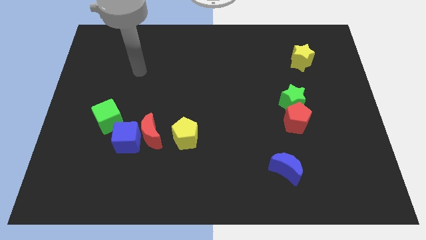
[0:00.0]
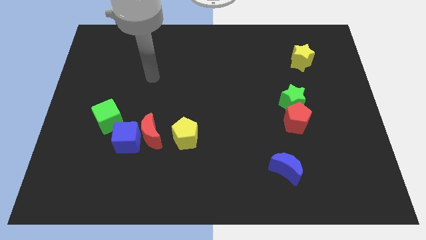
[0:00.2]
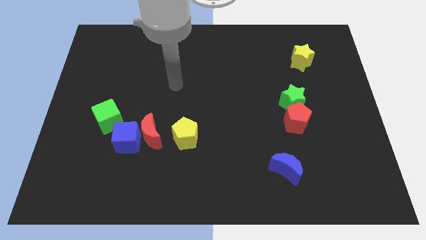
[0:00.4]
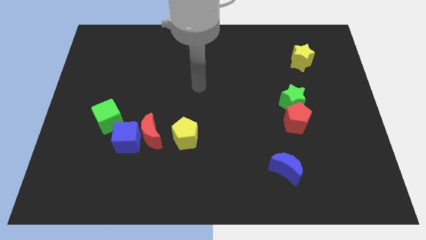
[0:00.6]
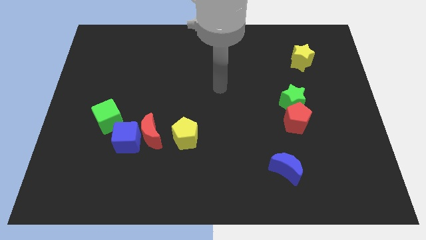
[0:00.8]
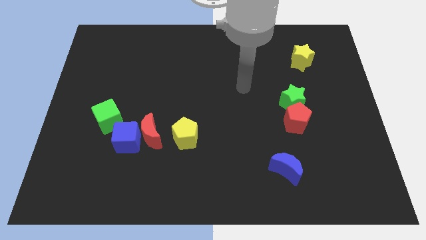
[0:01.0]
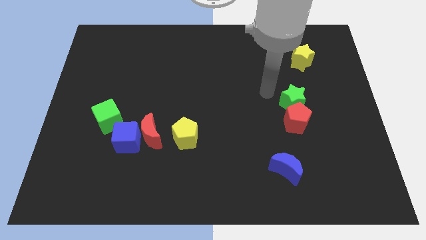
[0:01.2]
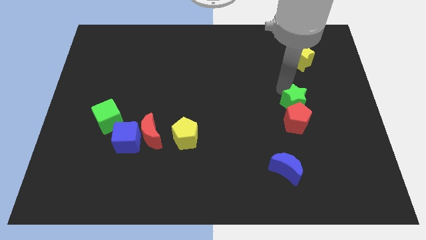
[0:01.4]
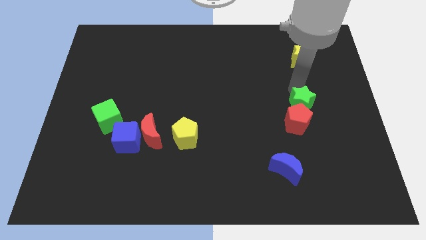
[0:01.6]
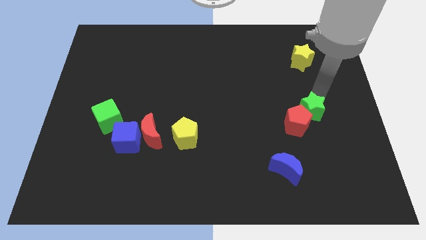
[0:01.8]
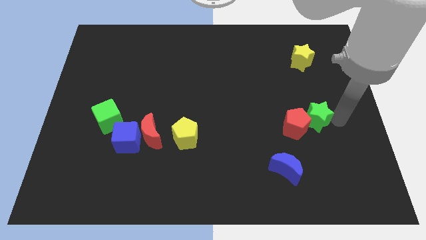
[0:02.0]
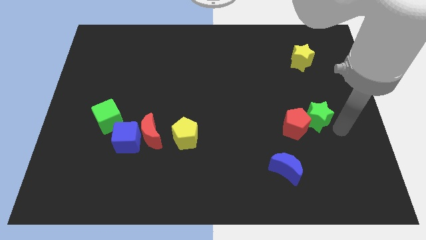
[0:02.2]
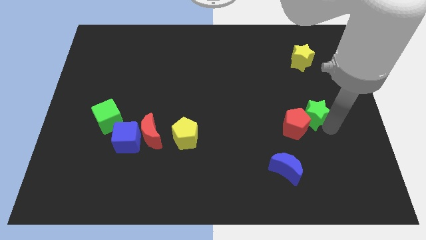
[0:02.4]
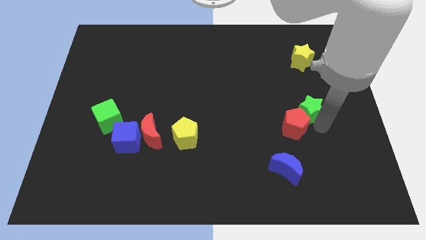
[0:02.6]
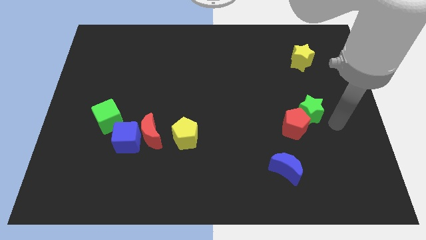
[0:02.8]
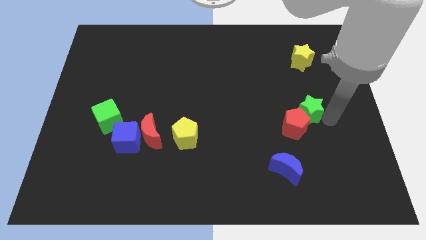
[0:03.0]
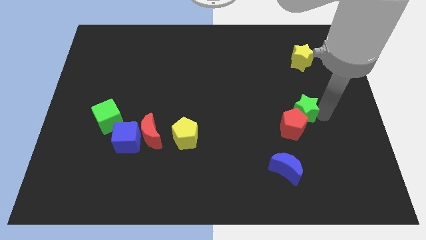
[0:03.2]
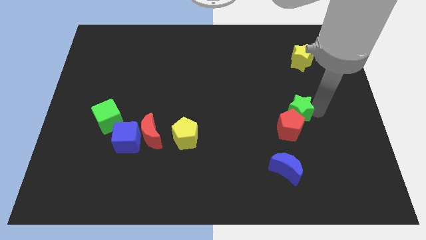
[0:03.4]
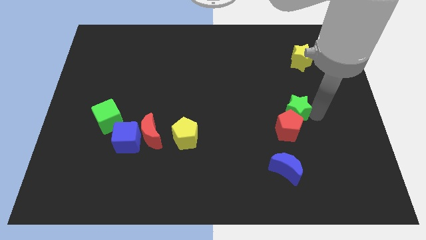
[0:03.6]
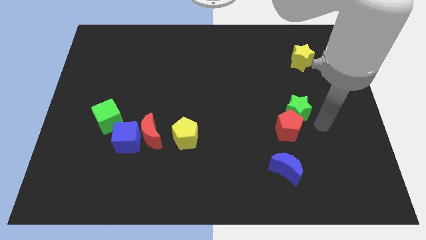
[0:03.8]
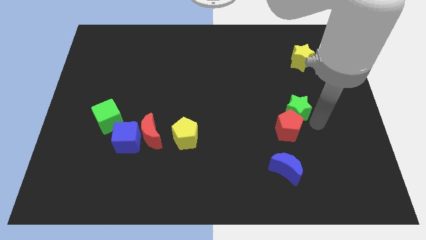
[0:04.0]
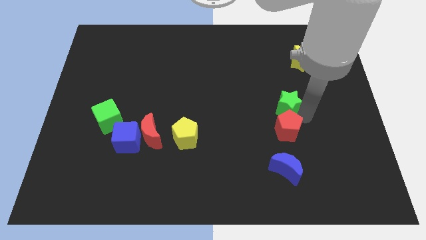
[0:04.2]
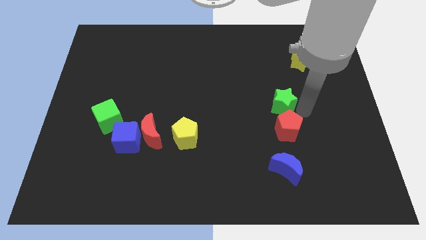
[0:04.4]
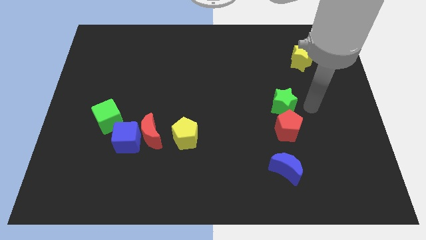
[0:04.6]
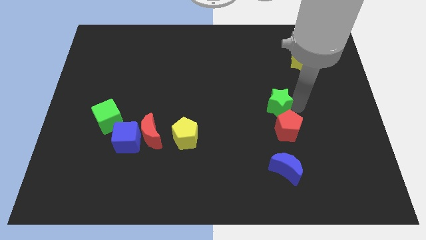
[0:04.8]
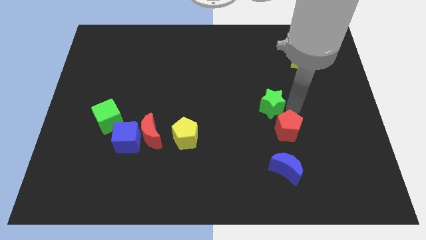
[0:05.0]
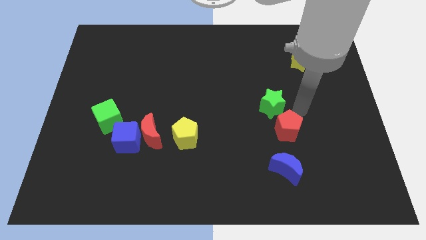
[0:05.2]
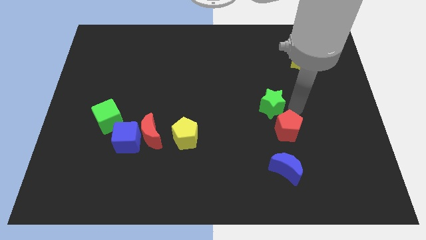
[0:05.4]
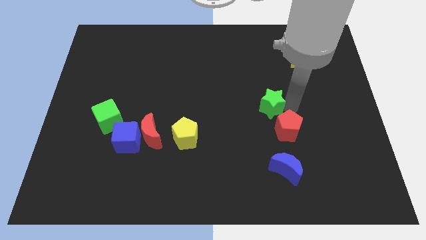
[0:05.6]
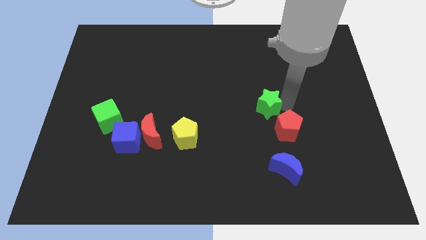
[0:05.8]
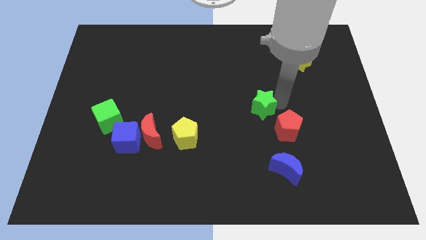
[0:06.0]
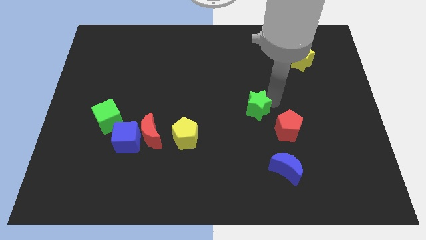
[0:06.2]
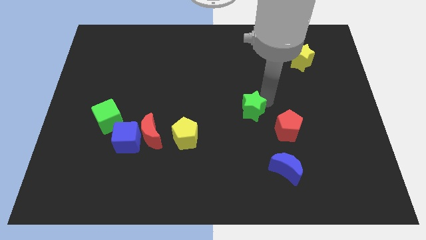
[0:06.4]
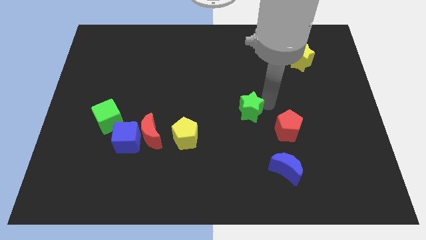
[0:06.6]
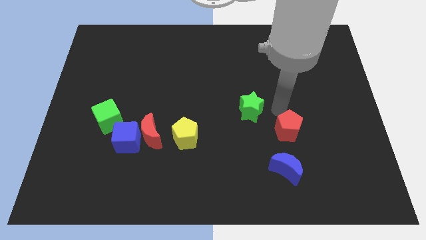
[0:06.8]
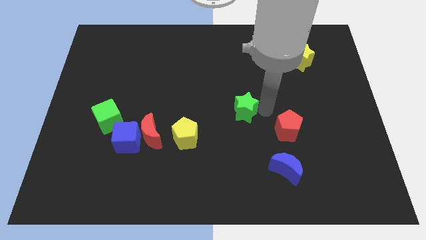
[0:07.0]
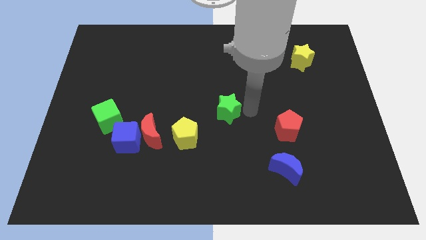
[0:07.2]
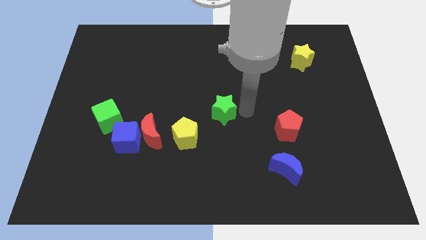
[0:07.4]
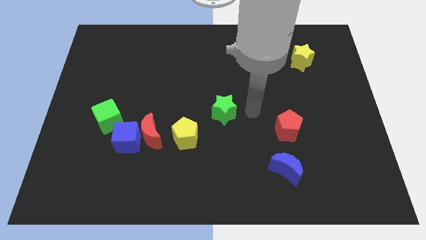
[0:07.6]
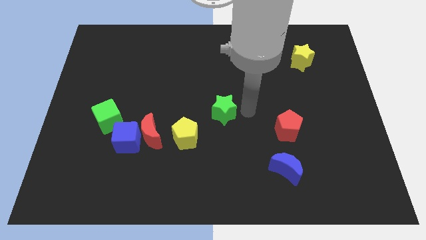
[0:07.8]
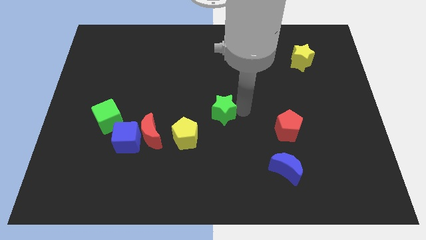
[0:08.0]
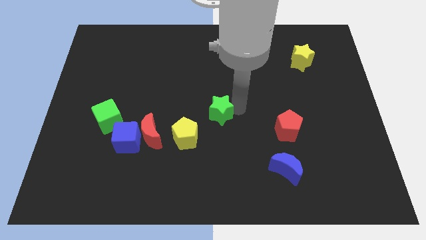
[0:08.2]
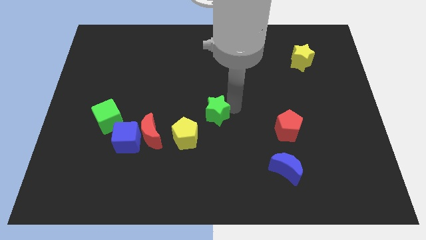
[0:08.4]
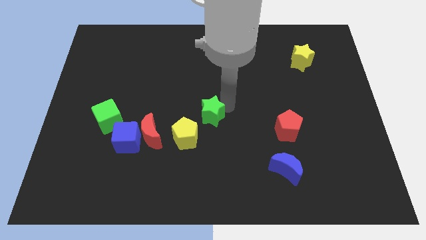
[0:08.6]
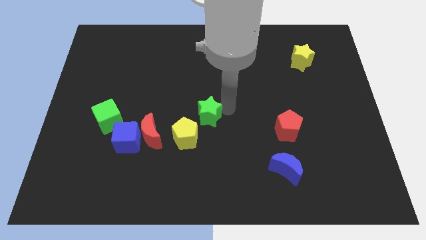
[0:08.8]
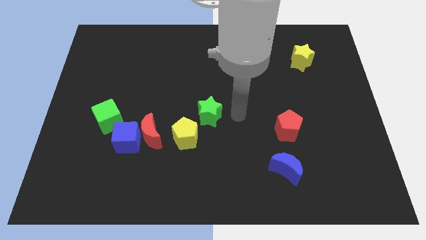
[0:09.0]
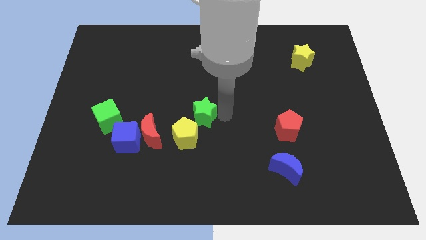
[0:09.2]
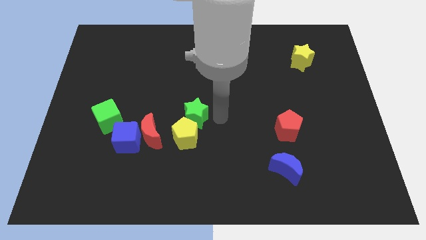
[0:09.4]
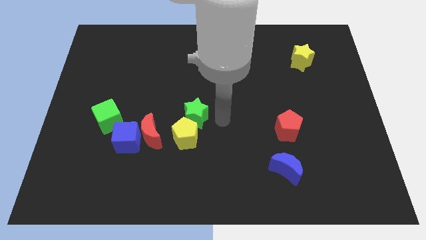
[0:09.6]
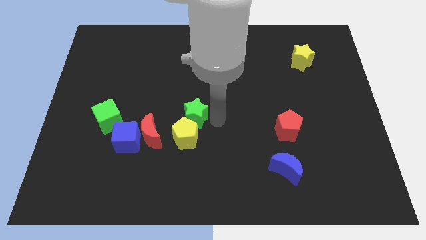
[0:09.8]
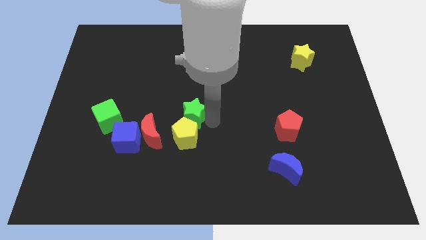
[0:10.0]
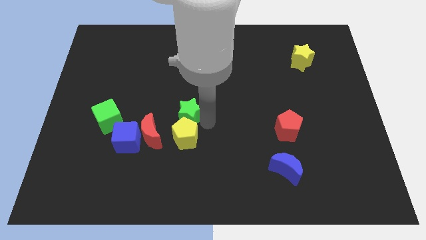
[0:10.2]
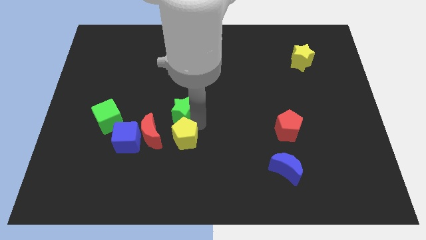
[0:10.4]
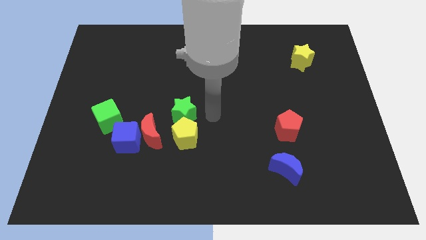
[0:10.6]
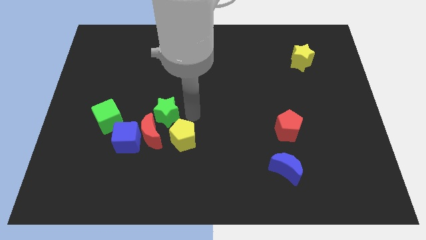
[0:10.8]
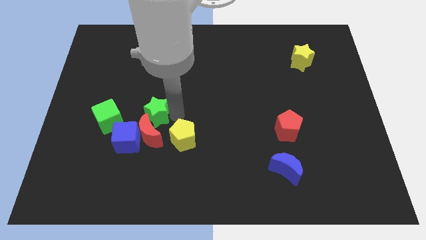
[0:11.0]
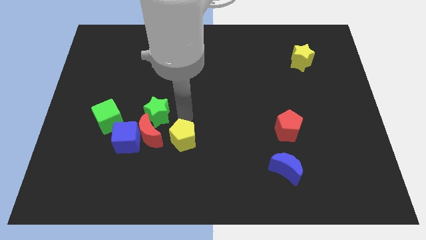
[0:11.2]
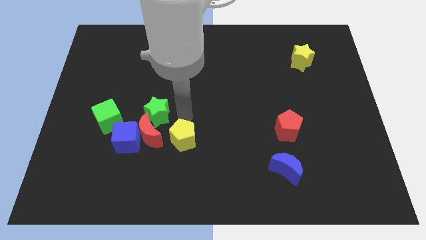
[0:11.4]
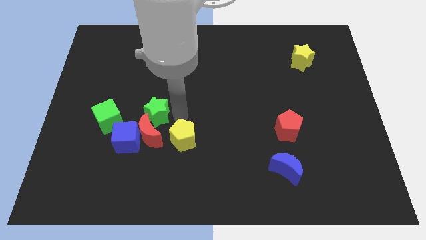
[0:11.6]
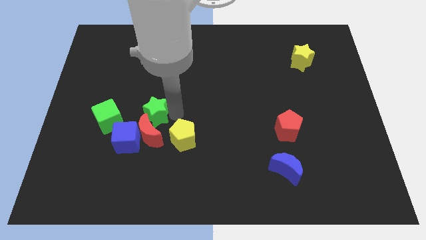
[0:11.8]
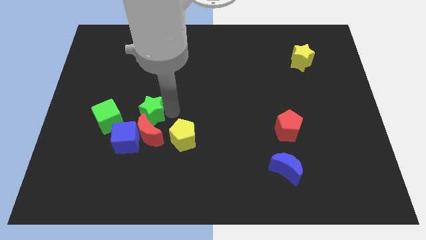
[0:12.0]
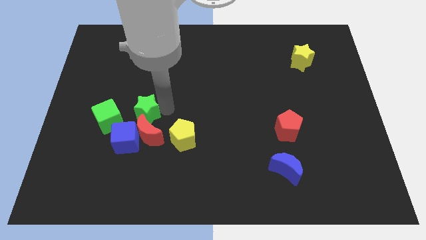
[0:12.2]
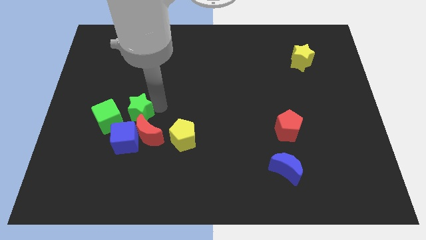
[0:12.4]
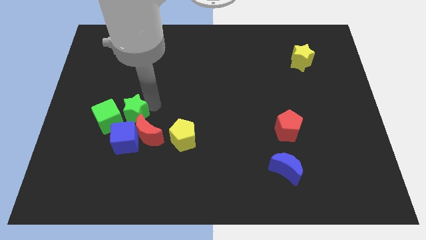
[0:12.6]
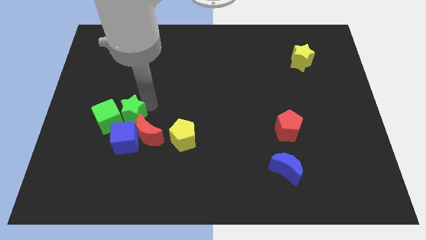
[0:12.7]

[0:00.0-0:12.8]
put the green star close to the green cube

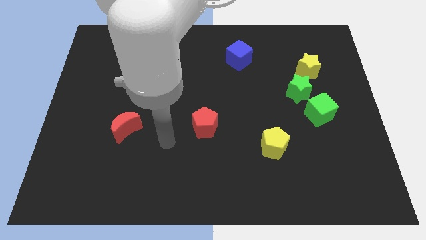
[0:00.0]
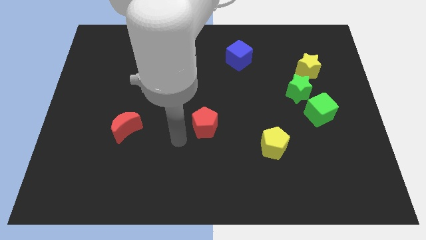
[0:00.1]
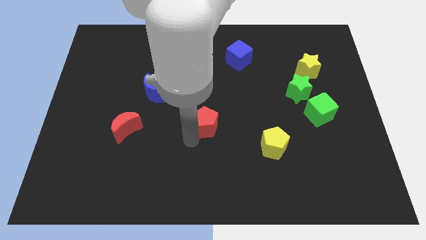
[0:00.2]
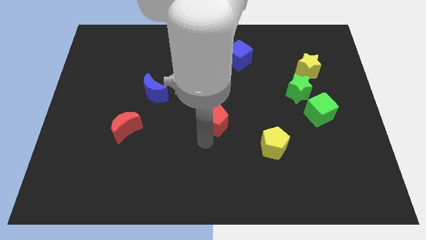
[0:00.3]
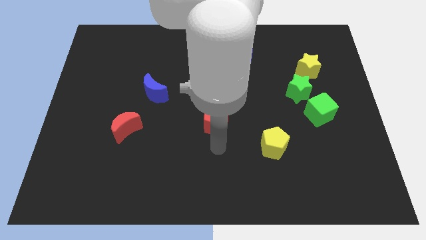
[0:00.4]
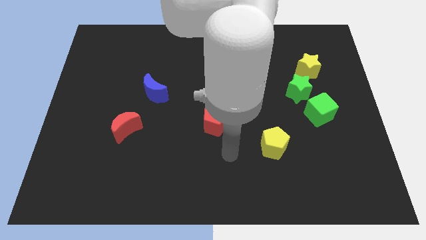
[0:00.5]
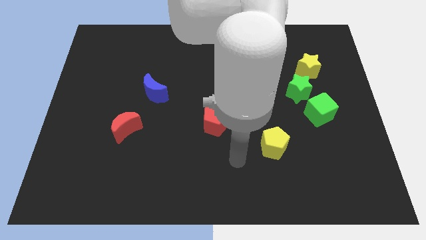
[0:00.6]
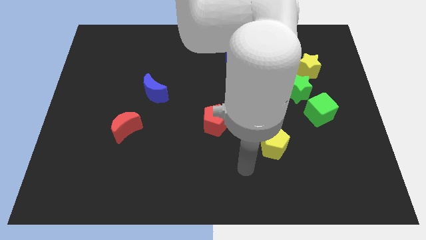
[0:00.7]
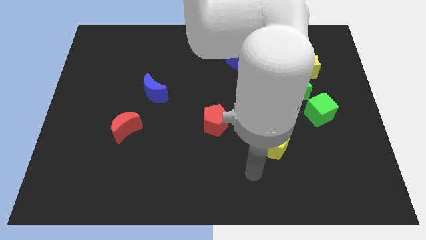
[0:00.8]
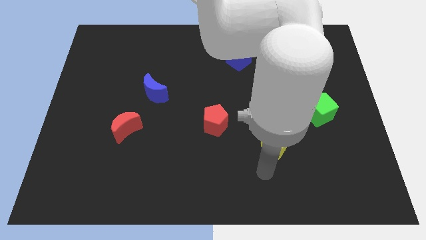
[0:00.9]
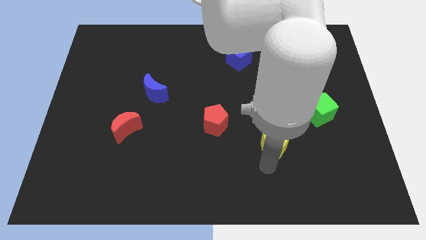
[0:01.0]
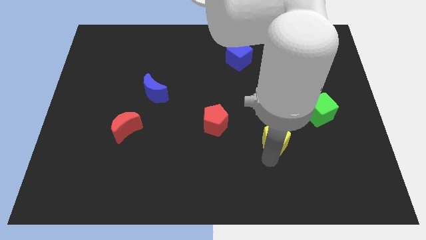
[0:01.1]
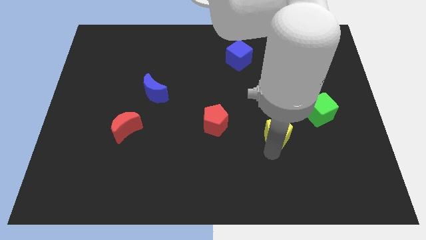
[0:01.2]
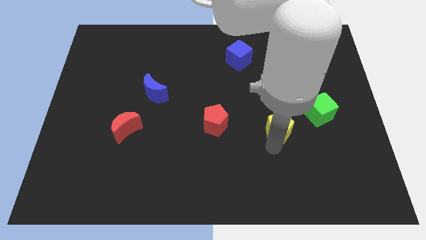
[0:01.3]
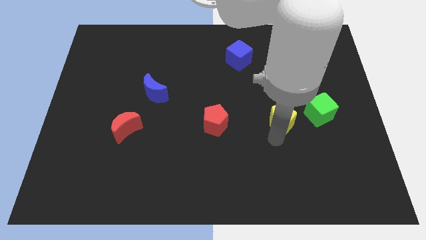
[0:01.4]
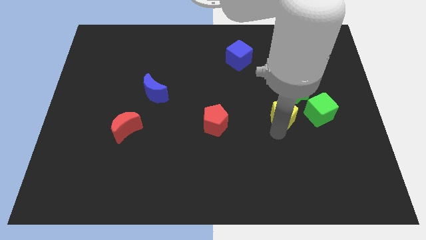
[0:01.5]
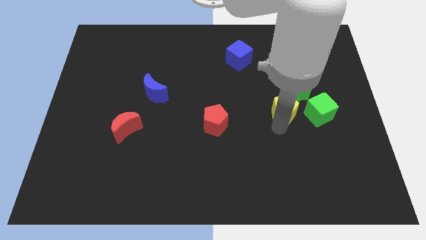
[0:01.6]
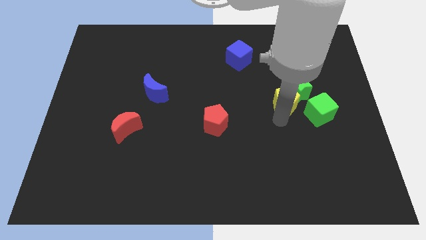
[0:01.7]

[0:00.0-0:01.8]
push the yellow pentagon close to the green star
